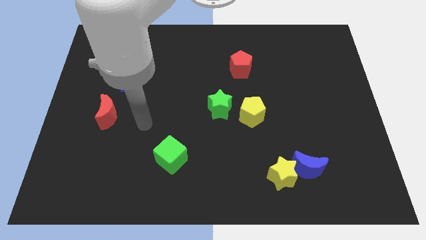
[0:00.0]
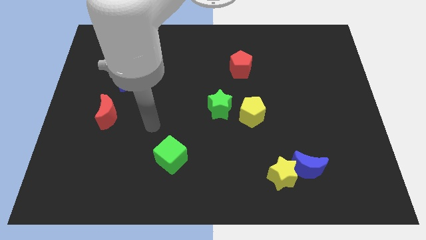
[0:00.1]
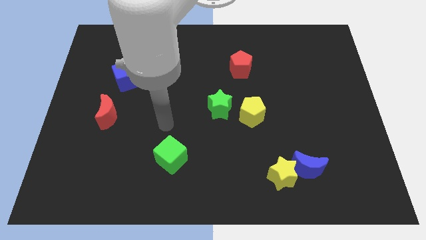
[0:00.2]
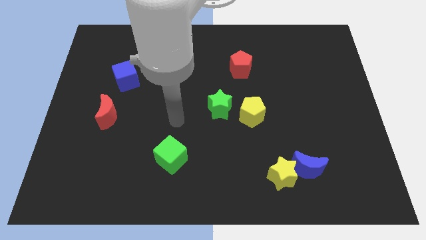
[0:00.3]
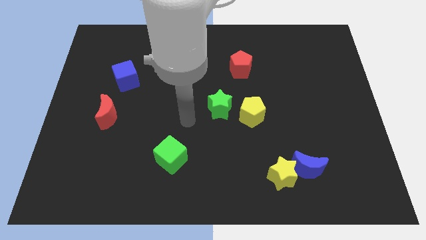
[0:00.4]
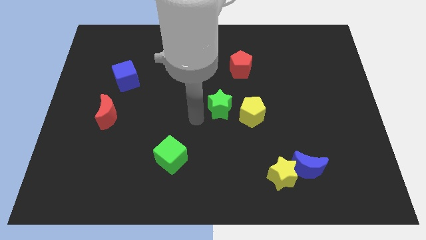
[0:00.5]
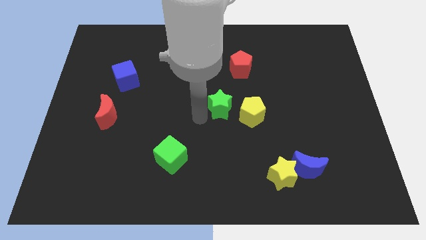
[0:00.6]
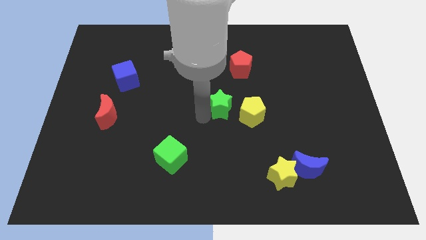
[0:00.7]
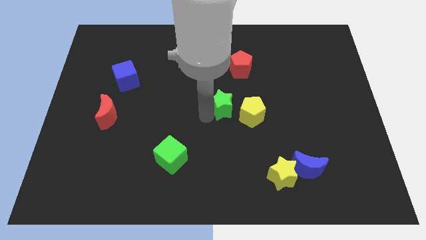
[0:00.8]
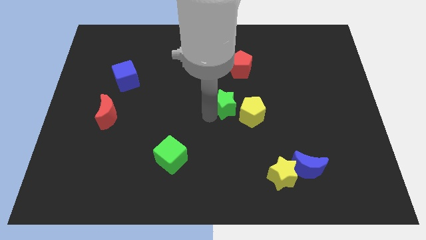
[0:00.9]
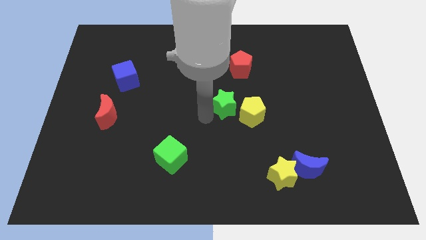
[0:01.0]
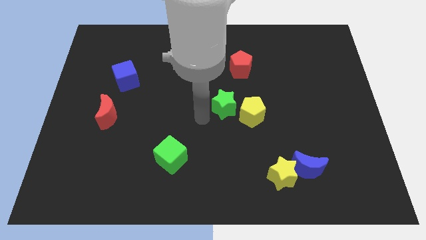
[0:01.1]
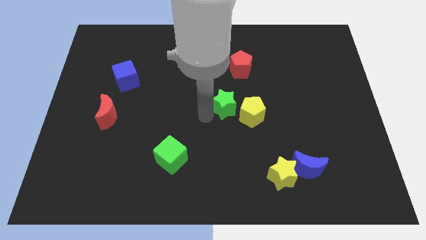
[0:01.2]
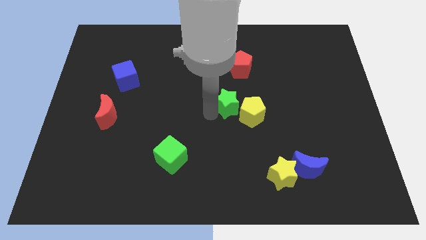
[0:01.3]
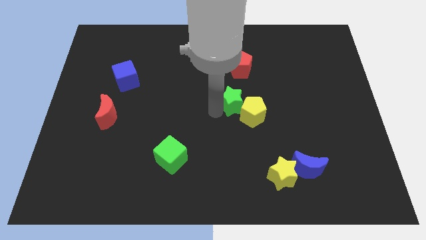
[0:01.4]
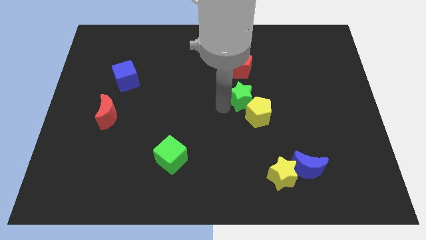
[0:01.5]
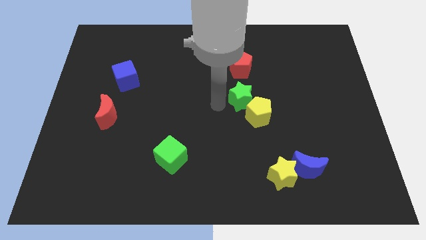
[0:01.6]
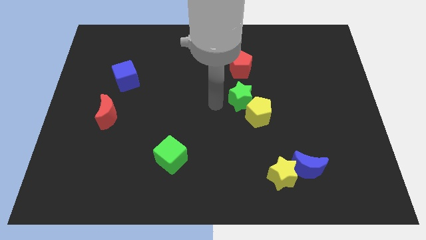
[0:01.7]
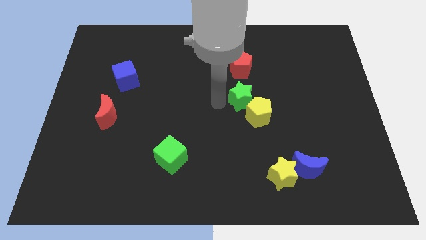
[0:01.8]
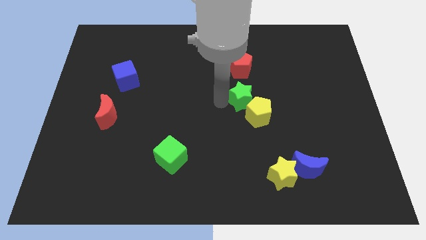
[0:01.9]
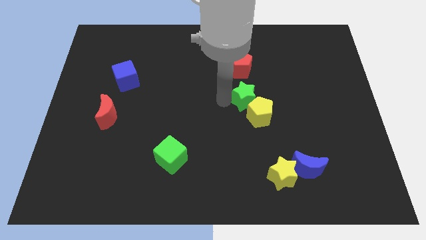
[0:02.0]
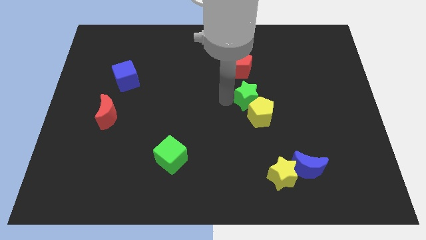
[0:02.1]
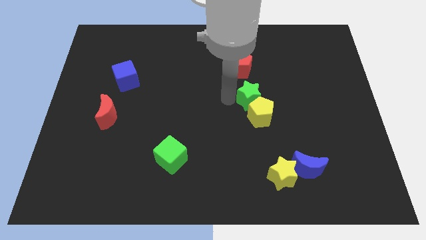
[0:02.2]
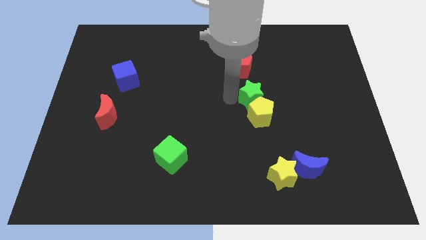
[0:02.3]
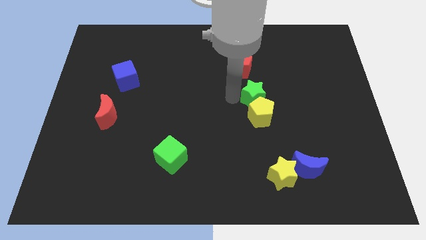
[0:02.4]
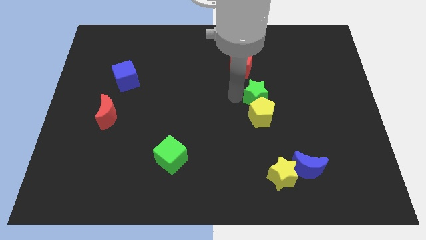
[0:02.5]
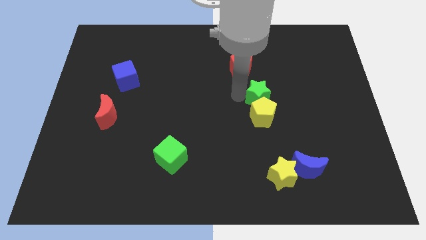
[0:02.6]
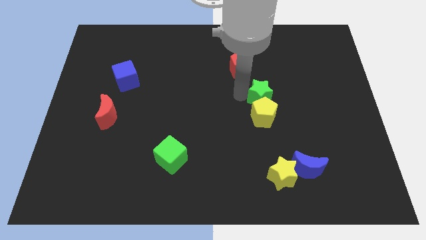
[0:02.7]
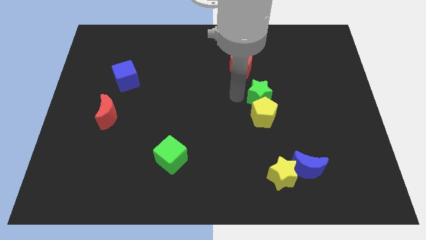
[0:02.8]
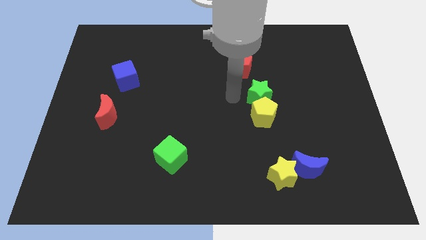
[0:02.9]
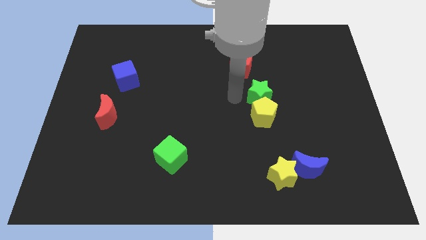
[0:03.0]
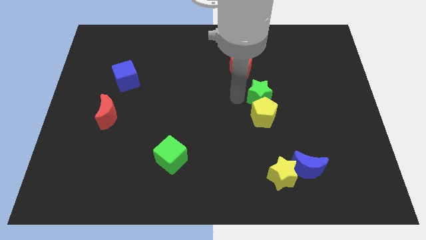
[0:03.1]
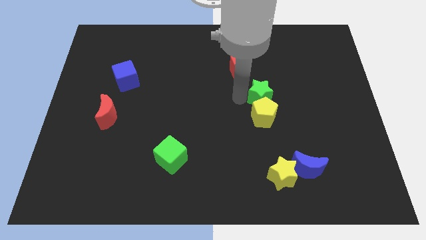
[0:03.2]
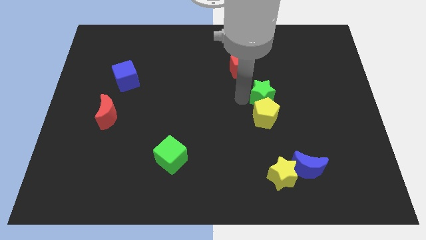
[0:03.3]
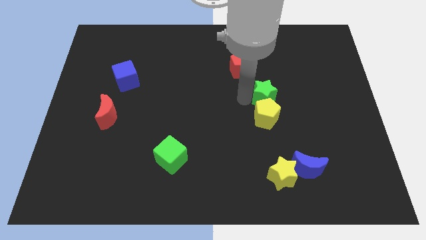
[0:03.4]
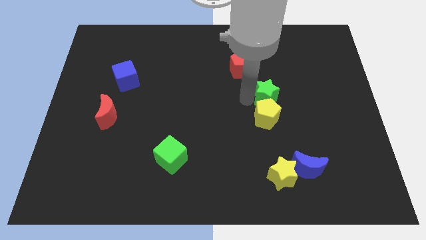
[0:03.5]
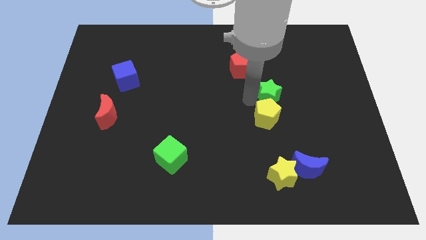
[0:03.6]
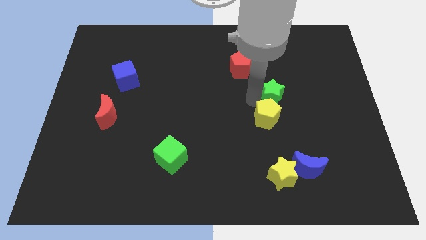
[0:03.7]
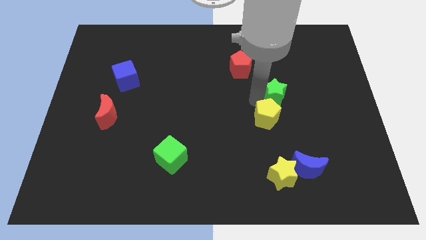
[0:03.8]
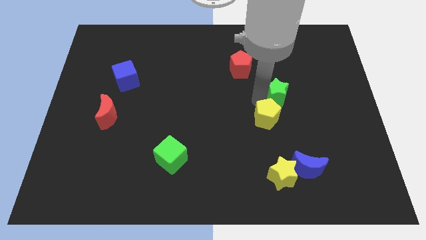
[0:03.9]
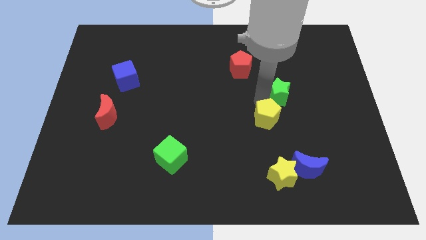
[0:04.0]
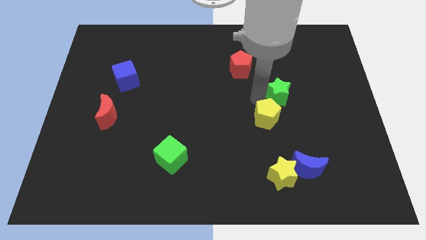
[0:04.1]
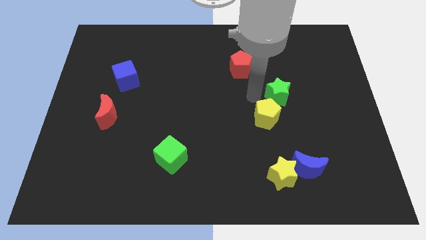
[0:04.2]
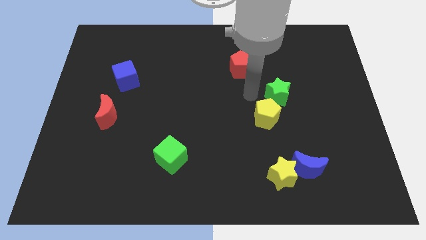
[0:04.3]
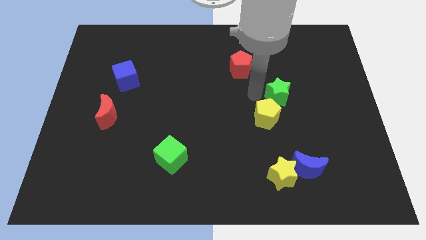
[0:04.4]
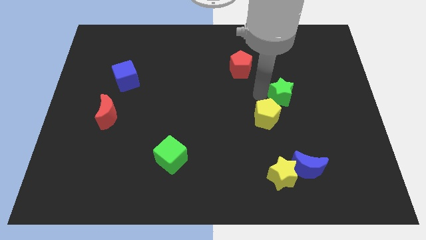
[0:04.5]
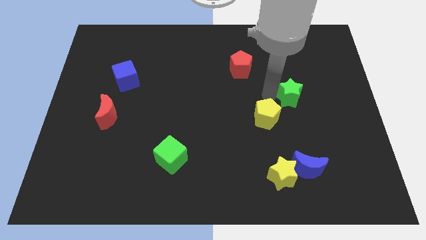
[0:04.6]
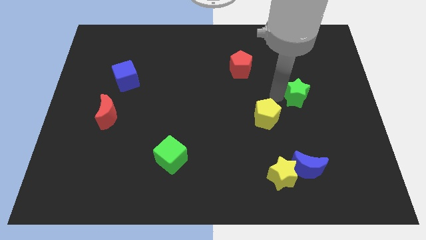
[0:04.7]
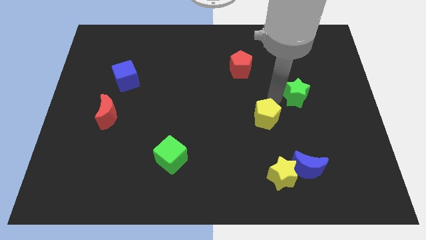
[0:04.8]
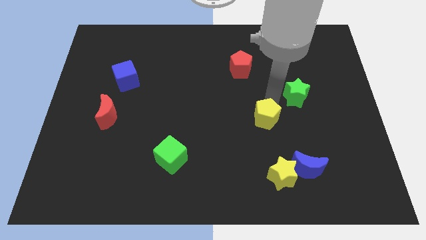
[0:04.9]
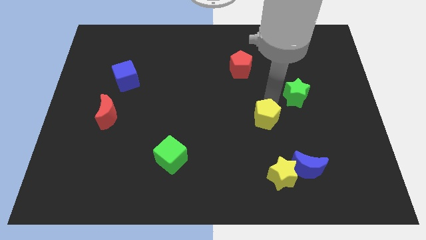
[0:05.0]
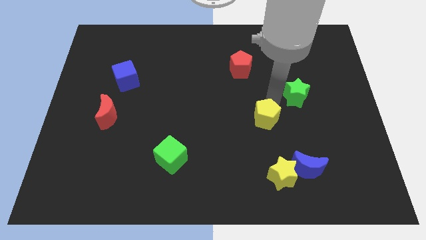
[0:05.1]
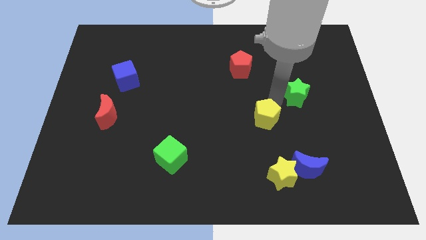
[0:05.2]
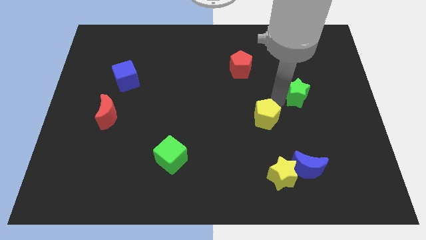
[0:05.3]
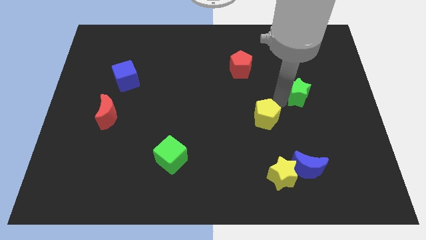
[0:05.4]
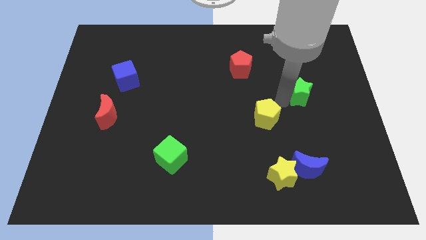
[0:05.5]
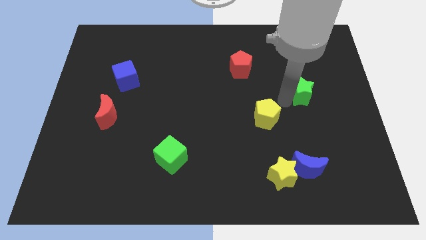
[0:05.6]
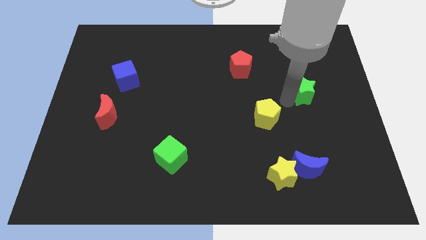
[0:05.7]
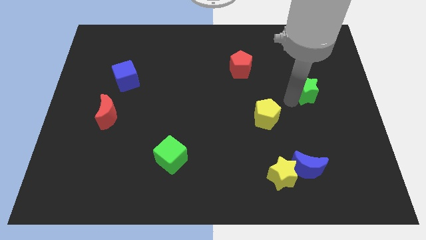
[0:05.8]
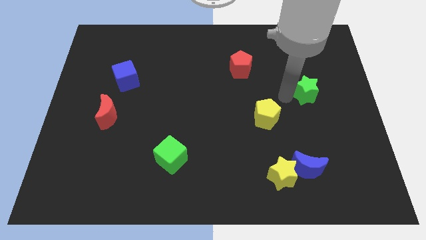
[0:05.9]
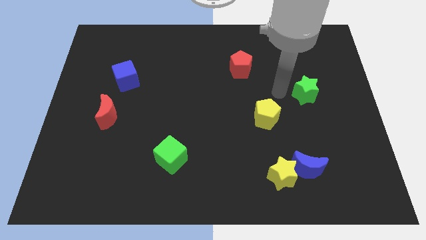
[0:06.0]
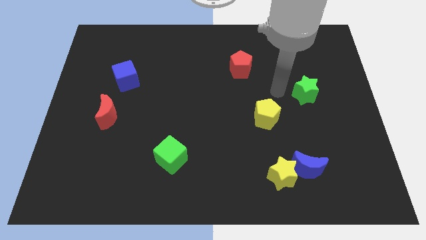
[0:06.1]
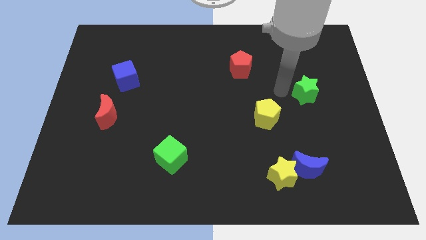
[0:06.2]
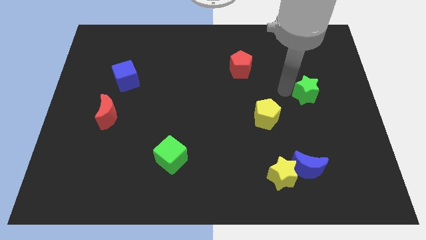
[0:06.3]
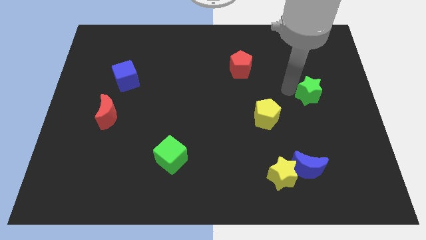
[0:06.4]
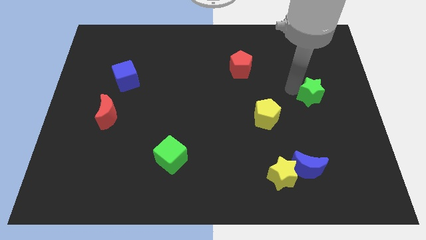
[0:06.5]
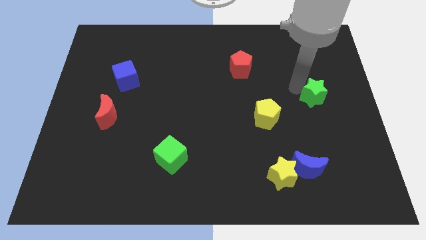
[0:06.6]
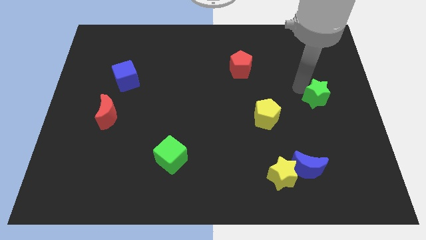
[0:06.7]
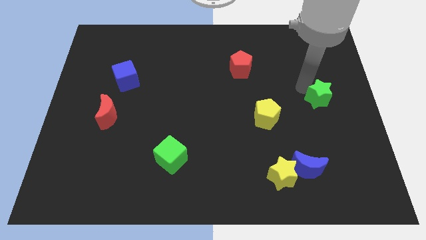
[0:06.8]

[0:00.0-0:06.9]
put the green star to the right side

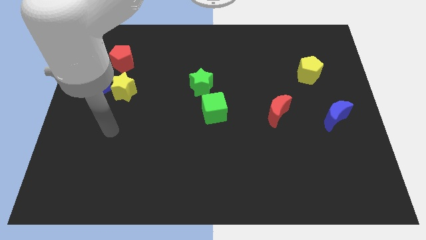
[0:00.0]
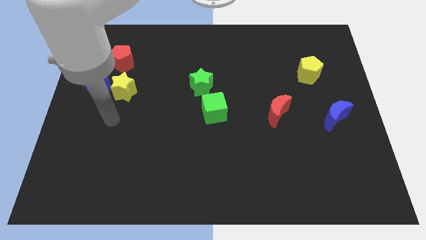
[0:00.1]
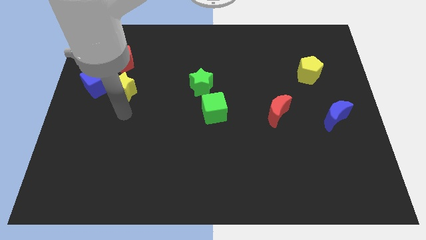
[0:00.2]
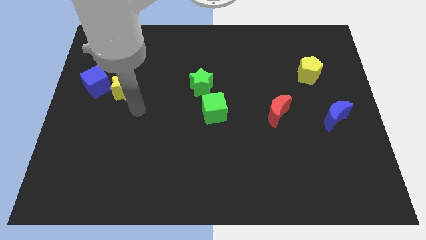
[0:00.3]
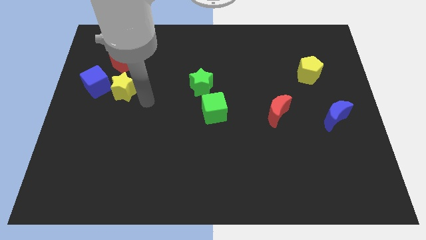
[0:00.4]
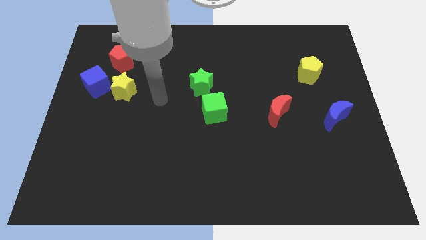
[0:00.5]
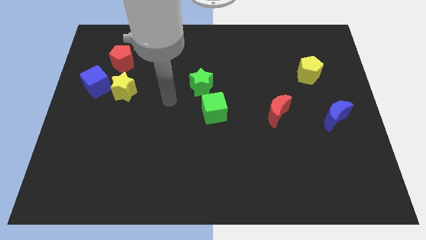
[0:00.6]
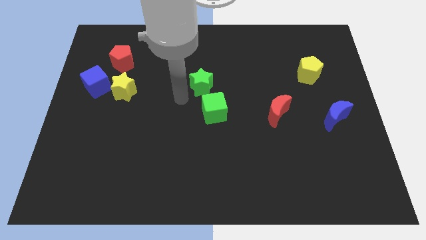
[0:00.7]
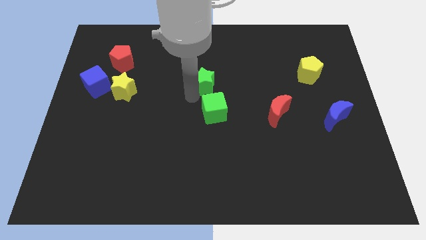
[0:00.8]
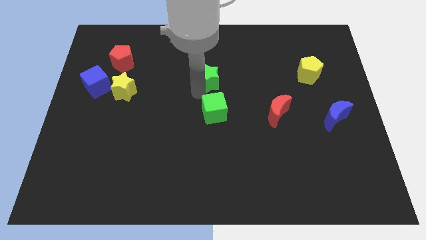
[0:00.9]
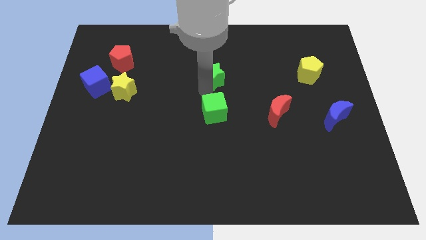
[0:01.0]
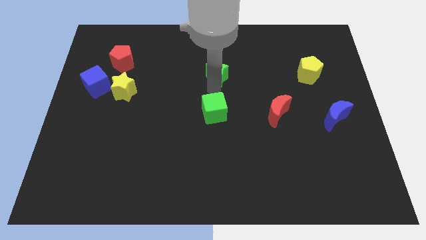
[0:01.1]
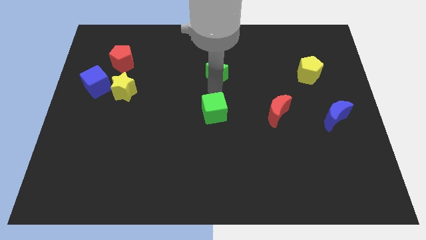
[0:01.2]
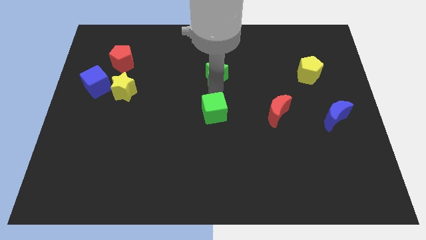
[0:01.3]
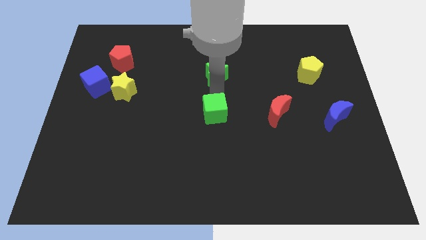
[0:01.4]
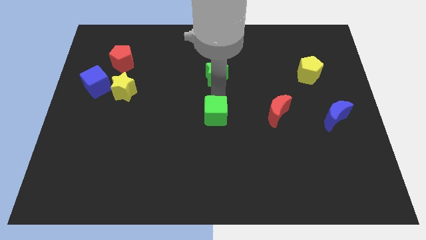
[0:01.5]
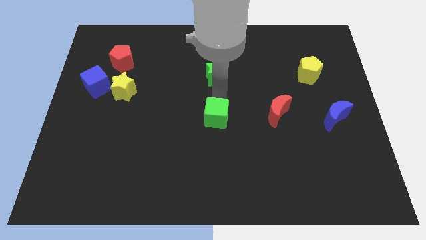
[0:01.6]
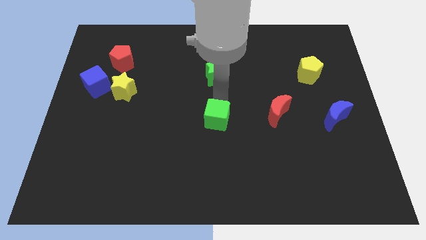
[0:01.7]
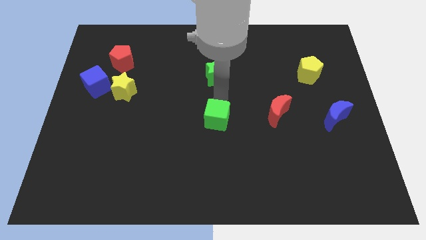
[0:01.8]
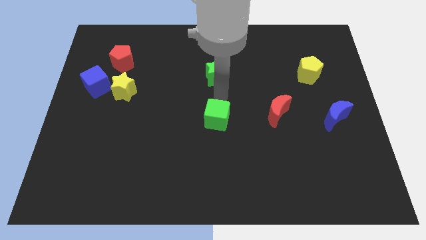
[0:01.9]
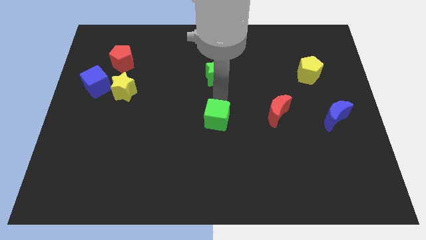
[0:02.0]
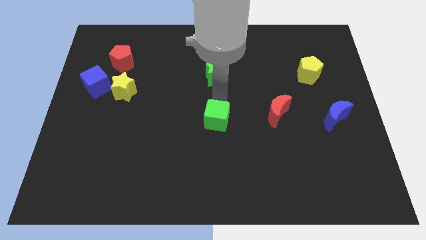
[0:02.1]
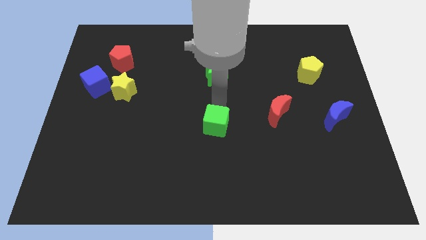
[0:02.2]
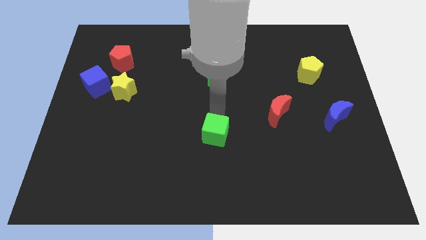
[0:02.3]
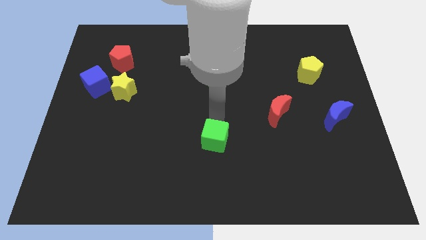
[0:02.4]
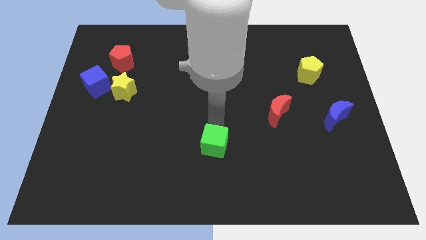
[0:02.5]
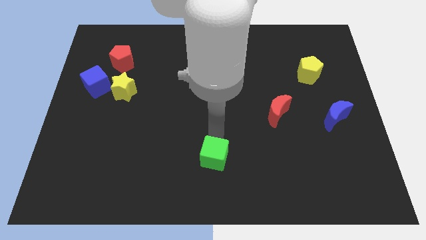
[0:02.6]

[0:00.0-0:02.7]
push the green cube to the bottom
